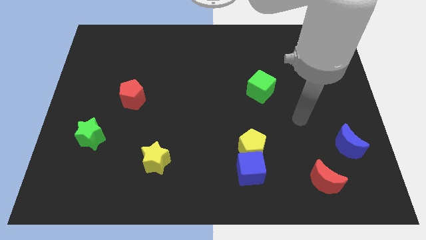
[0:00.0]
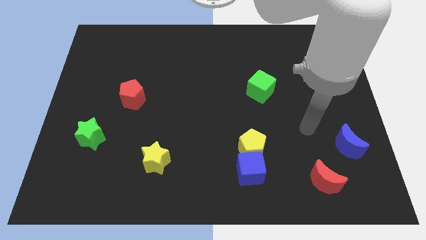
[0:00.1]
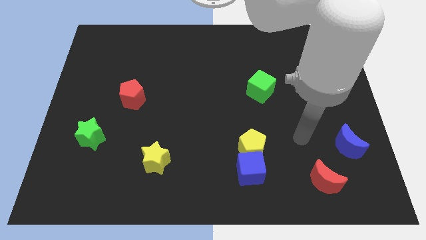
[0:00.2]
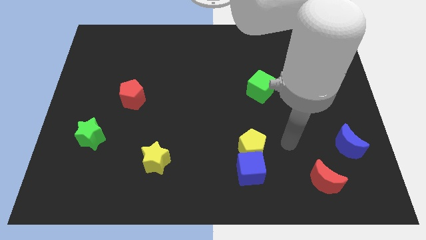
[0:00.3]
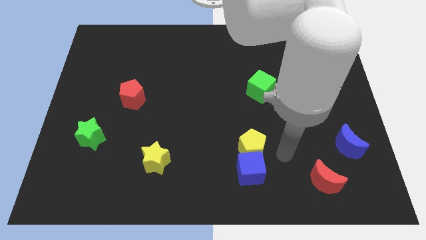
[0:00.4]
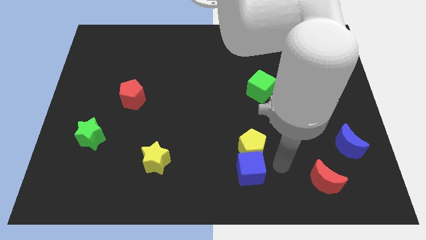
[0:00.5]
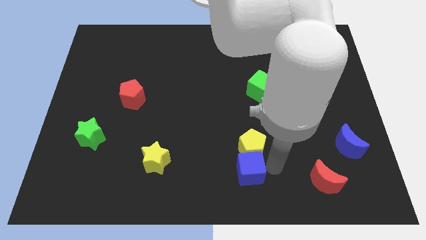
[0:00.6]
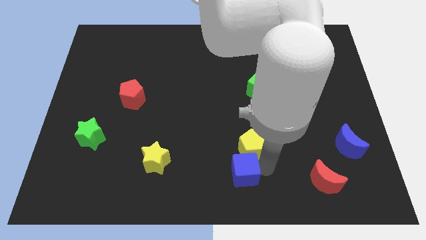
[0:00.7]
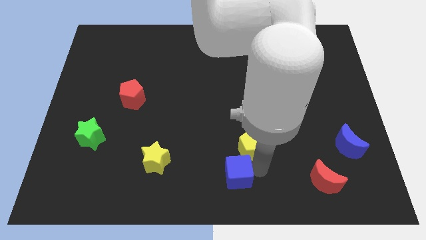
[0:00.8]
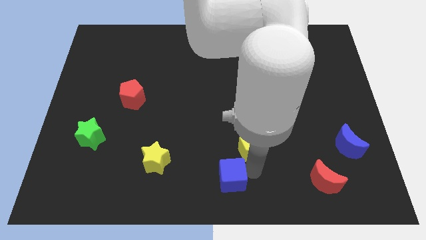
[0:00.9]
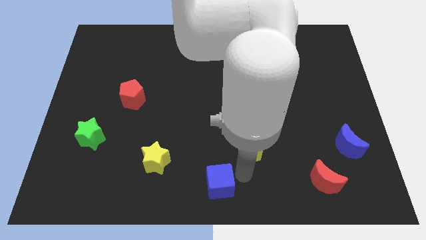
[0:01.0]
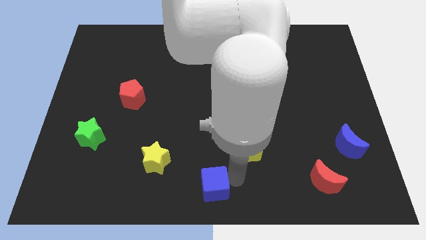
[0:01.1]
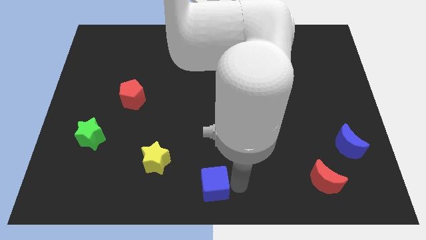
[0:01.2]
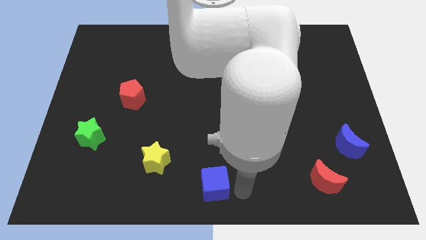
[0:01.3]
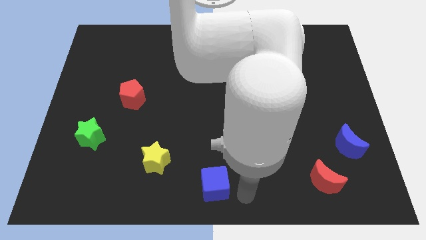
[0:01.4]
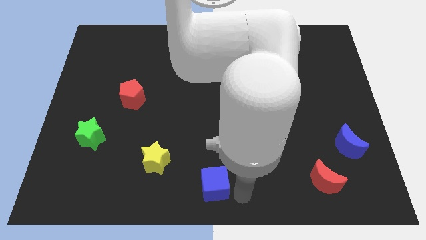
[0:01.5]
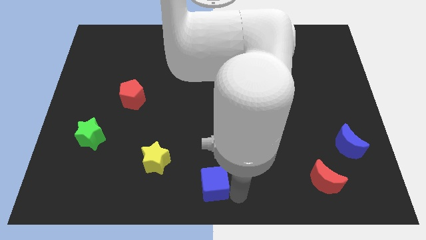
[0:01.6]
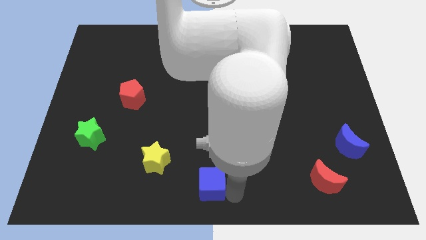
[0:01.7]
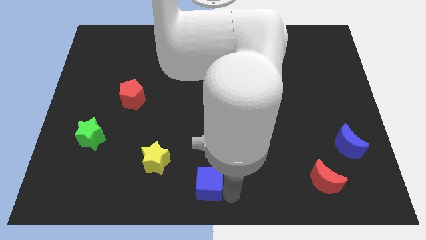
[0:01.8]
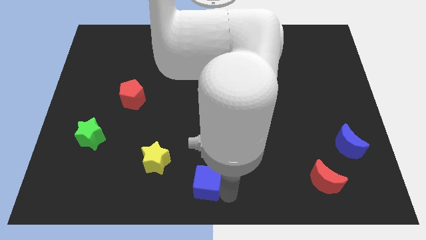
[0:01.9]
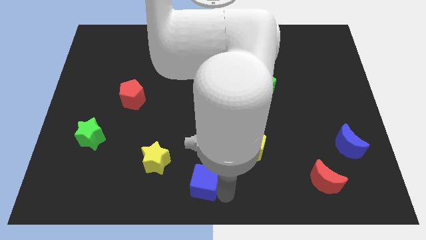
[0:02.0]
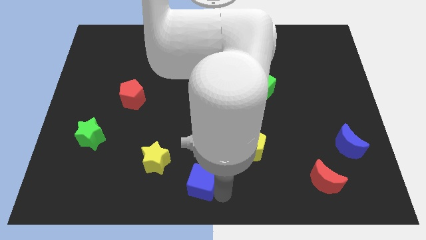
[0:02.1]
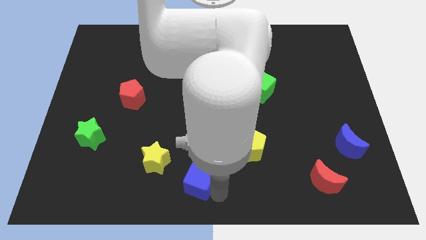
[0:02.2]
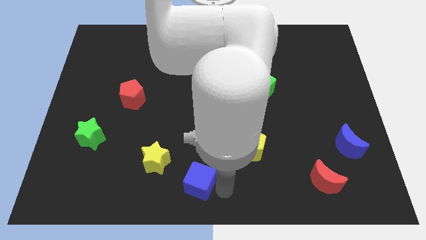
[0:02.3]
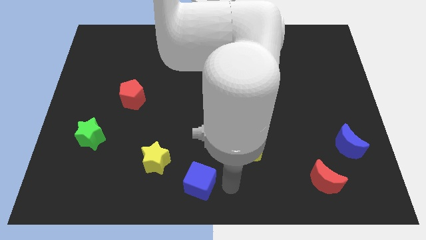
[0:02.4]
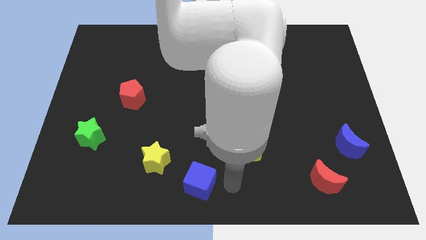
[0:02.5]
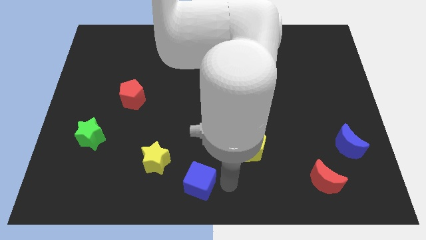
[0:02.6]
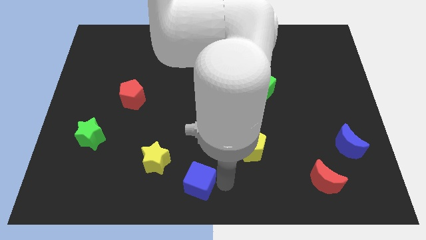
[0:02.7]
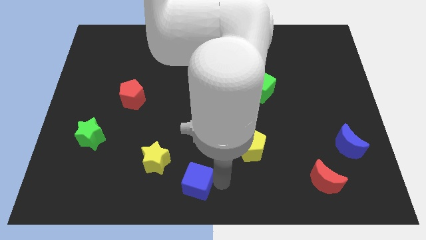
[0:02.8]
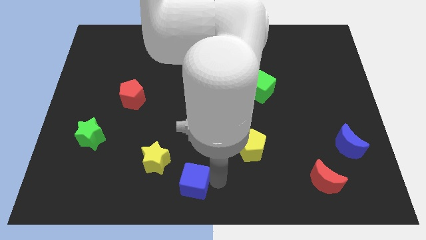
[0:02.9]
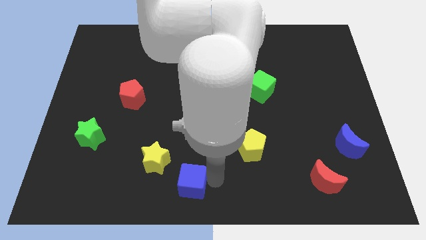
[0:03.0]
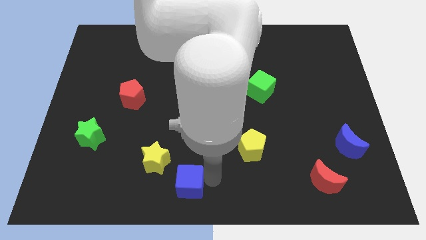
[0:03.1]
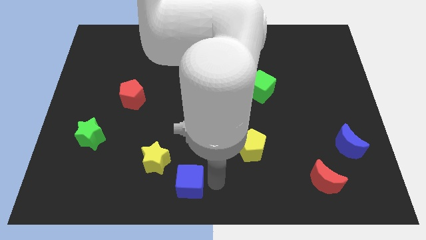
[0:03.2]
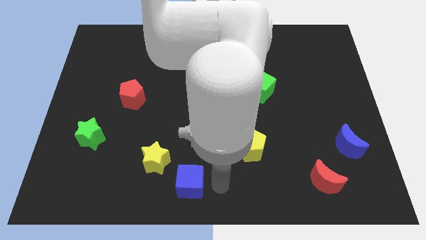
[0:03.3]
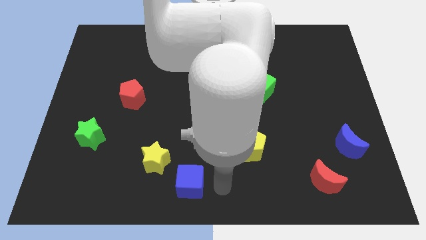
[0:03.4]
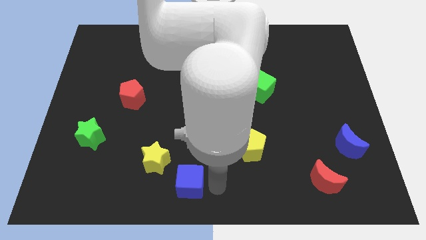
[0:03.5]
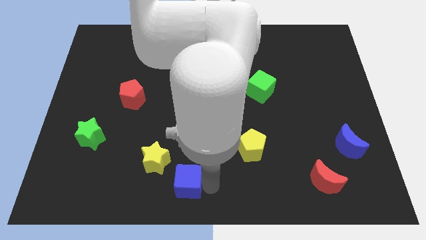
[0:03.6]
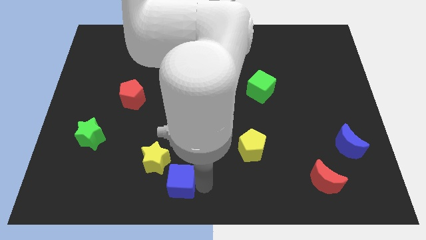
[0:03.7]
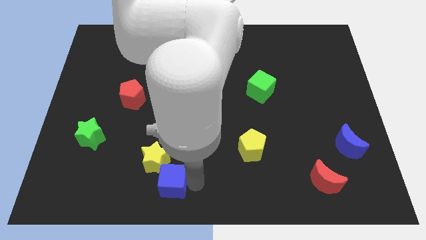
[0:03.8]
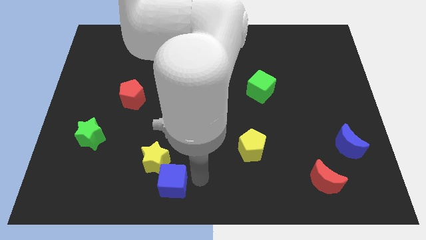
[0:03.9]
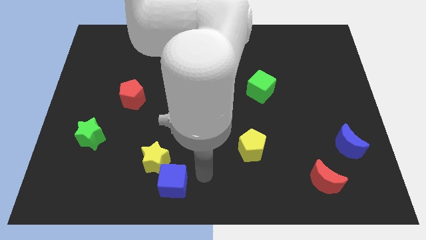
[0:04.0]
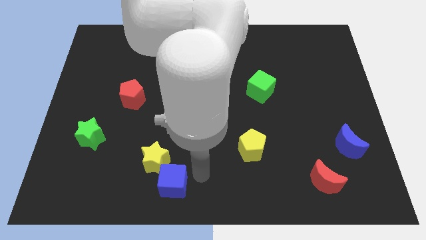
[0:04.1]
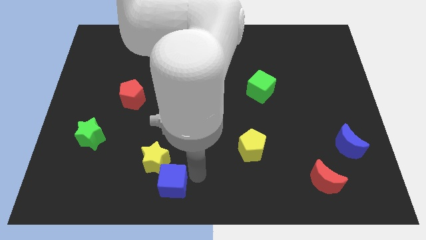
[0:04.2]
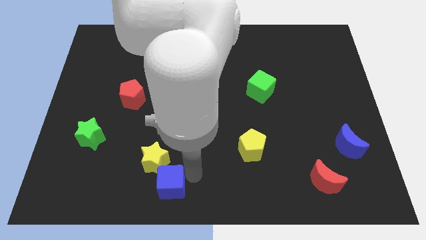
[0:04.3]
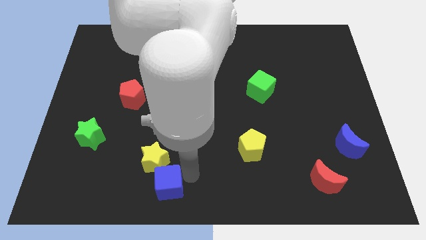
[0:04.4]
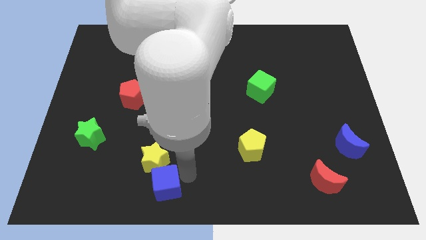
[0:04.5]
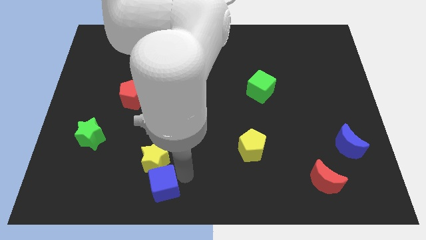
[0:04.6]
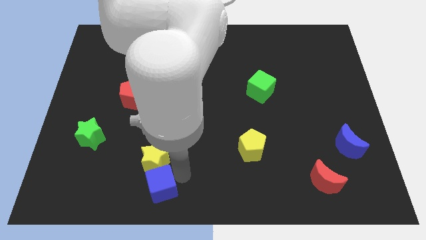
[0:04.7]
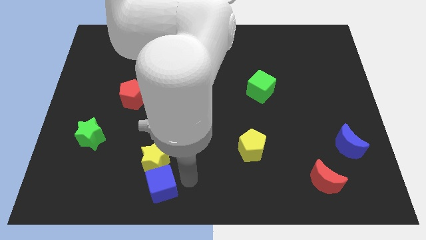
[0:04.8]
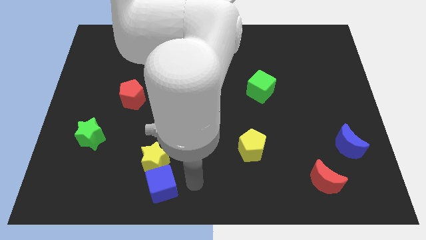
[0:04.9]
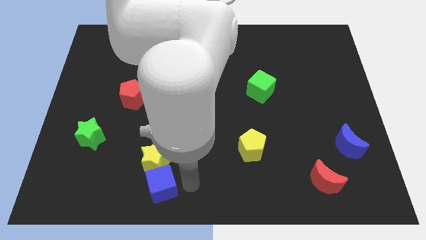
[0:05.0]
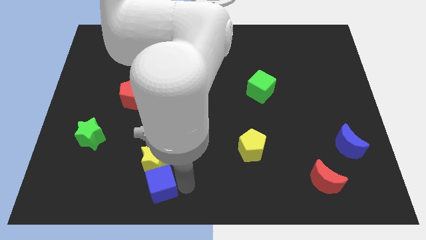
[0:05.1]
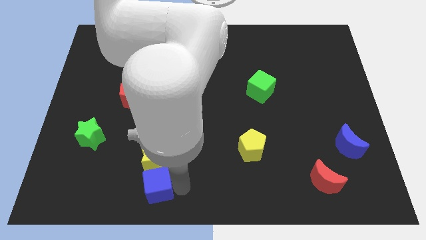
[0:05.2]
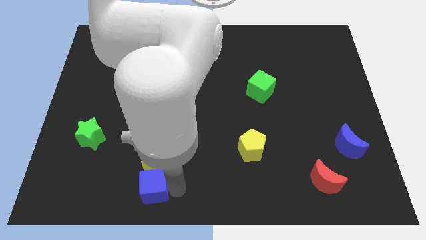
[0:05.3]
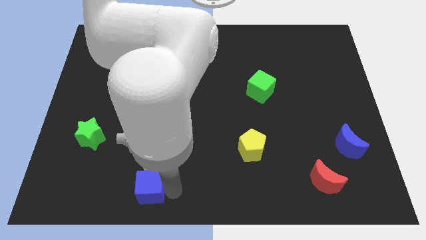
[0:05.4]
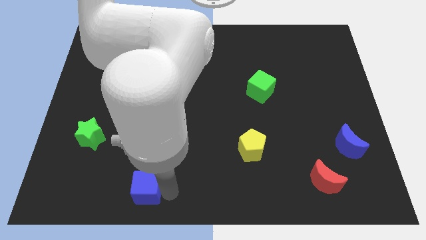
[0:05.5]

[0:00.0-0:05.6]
move the blue cube left

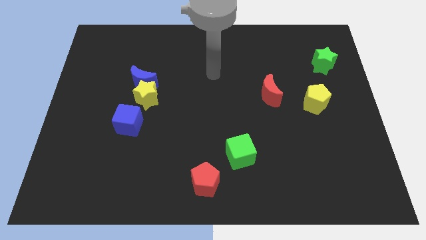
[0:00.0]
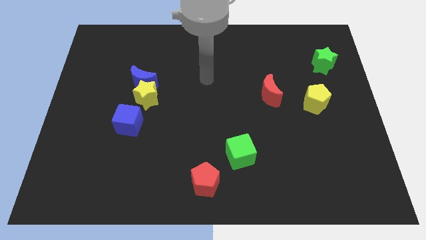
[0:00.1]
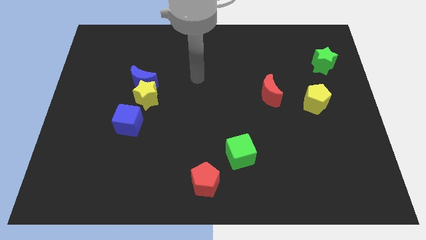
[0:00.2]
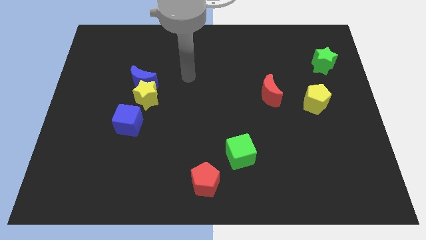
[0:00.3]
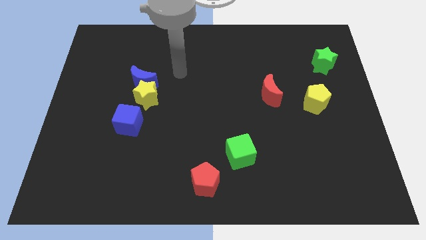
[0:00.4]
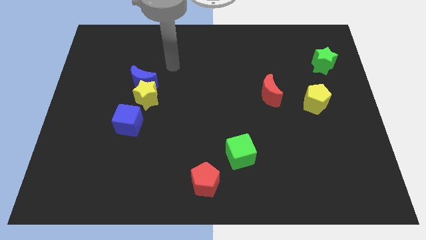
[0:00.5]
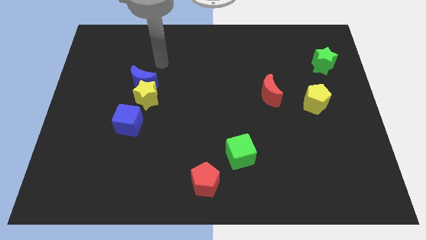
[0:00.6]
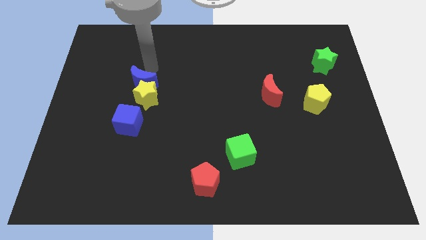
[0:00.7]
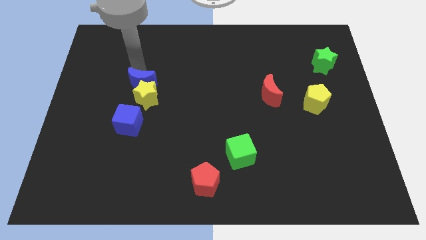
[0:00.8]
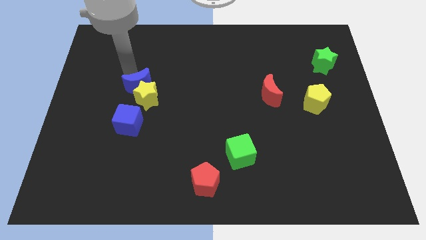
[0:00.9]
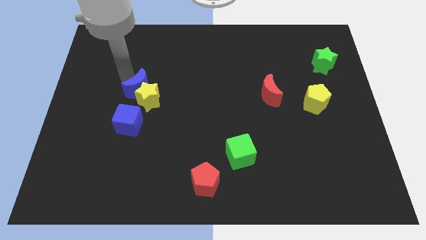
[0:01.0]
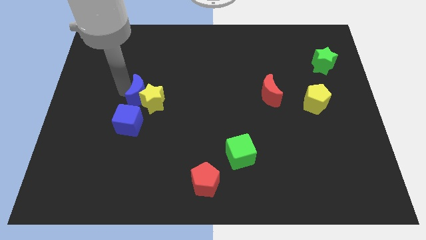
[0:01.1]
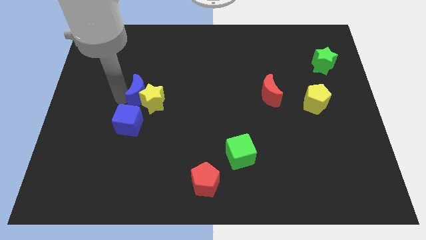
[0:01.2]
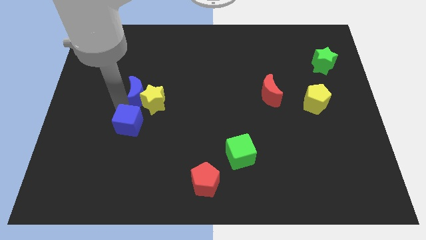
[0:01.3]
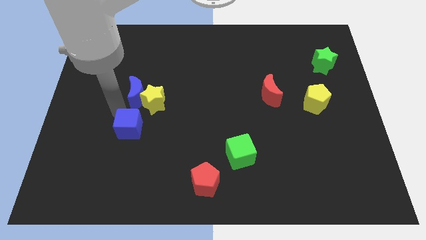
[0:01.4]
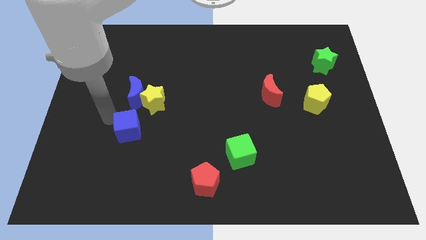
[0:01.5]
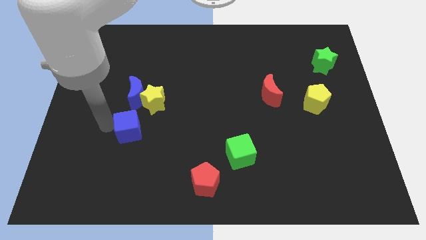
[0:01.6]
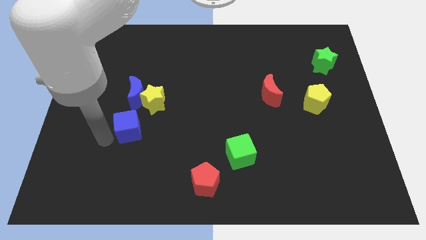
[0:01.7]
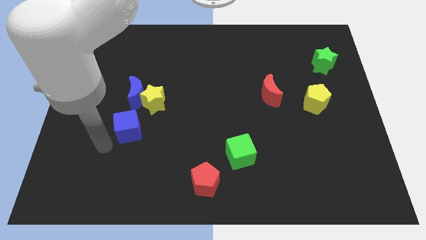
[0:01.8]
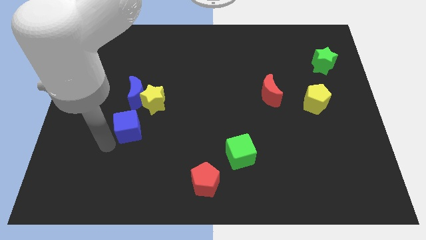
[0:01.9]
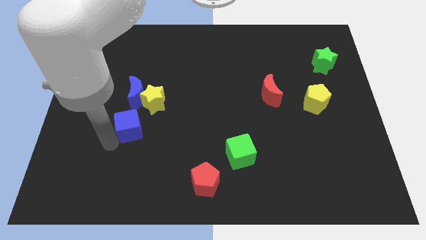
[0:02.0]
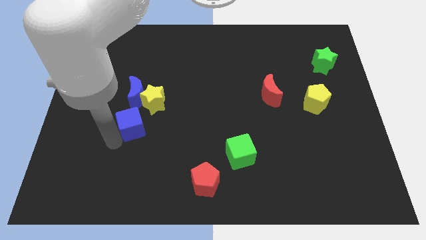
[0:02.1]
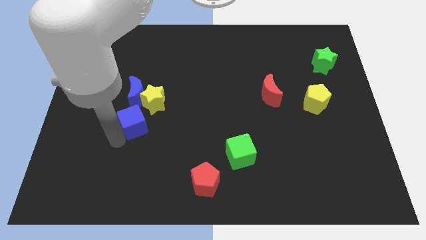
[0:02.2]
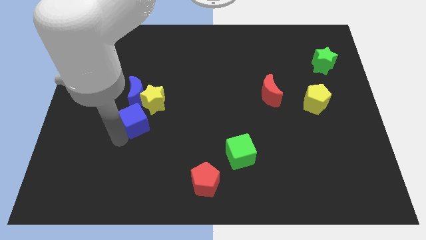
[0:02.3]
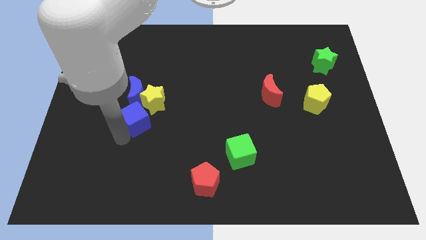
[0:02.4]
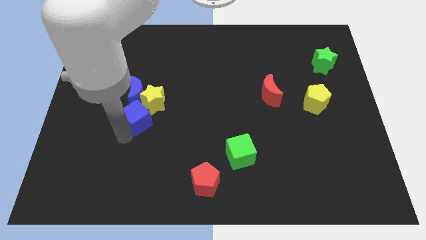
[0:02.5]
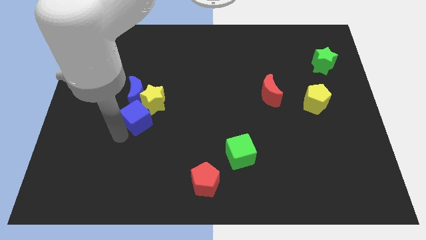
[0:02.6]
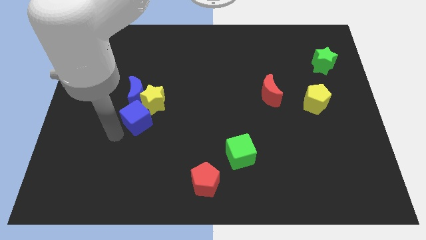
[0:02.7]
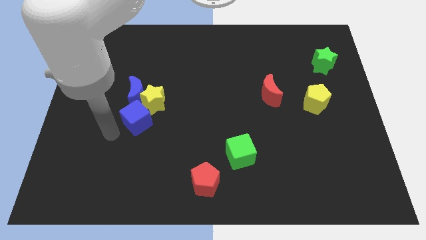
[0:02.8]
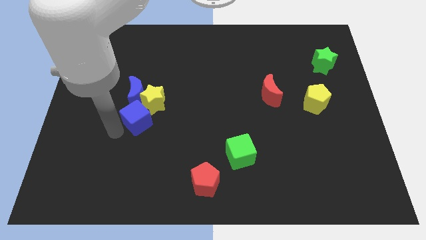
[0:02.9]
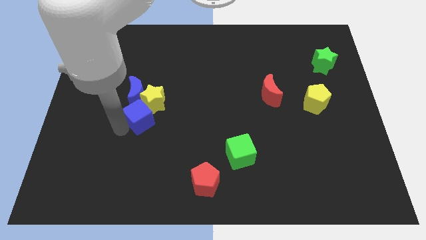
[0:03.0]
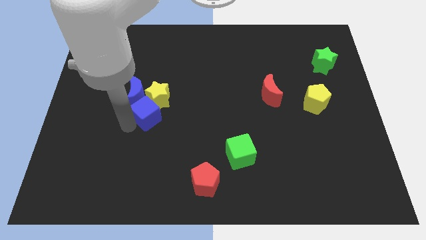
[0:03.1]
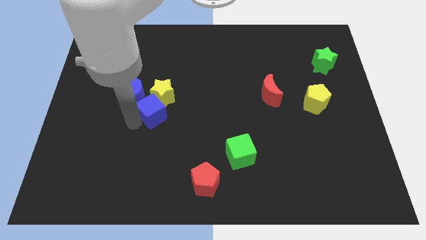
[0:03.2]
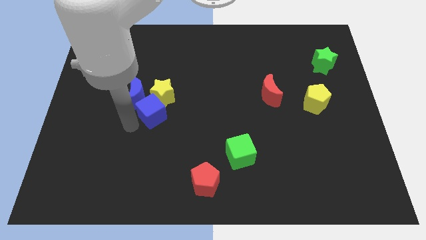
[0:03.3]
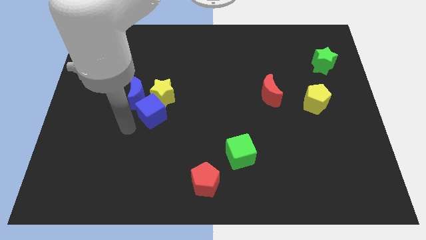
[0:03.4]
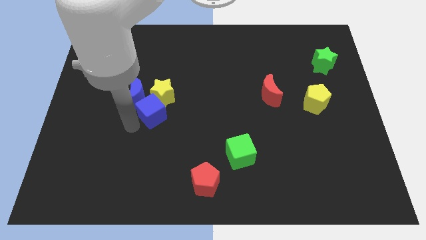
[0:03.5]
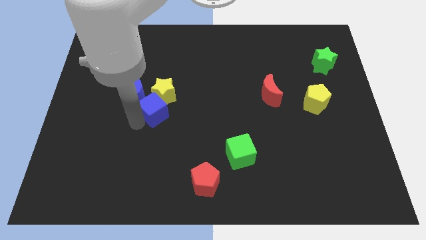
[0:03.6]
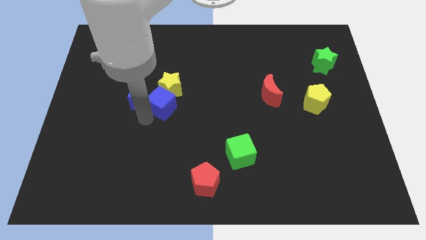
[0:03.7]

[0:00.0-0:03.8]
push the blue cube a little bit up and right
